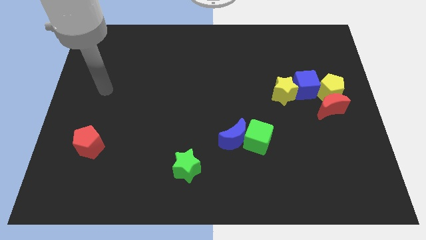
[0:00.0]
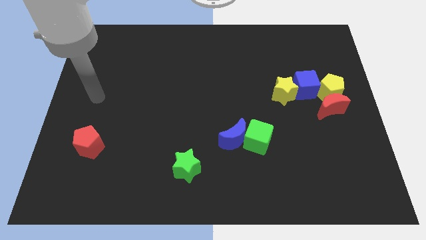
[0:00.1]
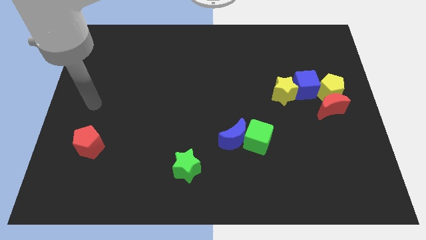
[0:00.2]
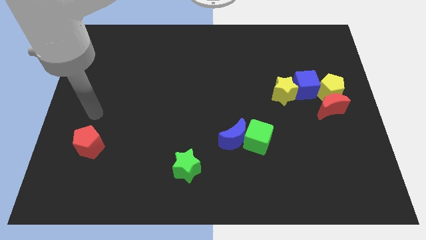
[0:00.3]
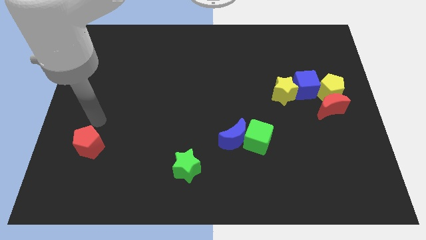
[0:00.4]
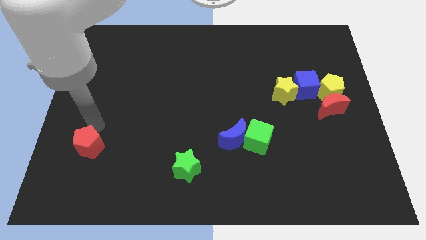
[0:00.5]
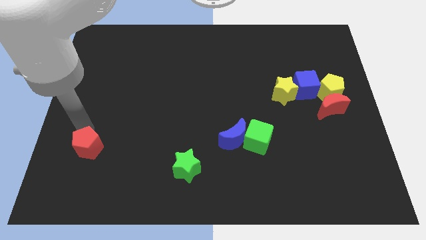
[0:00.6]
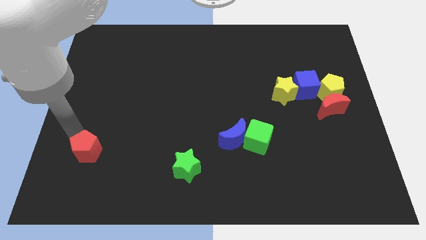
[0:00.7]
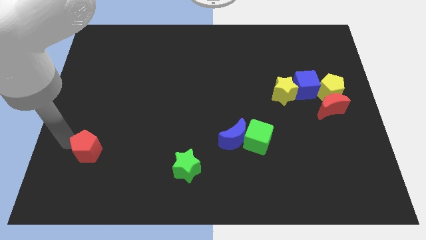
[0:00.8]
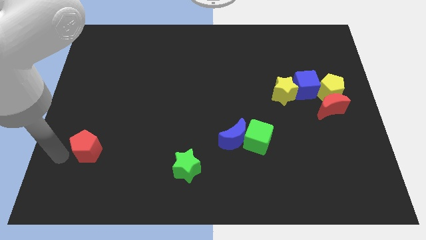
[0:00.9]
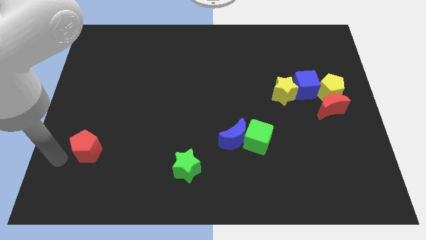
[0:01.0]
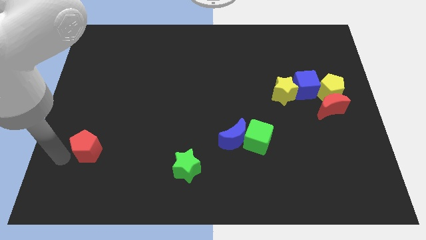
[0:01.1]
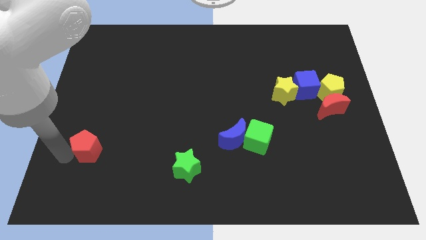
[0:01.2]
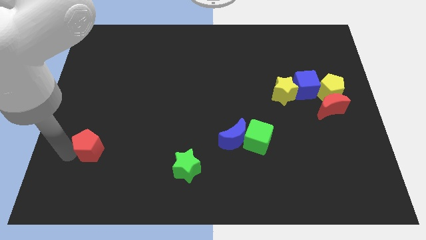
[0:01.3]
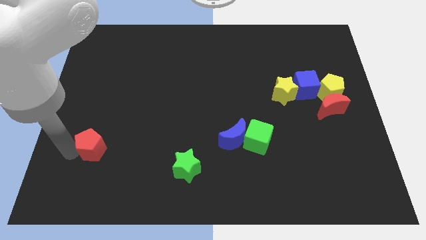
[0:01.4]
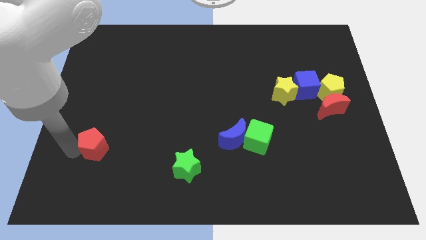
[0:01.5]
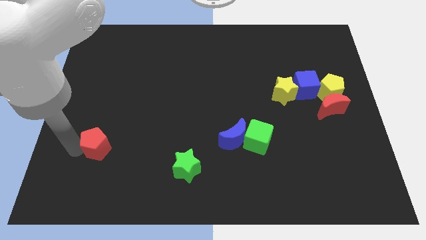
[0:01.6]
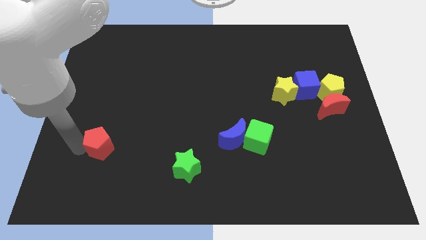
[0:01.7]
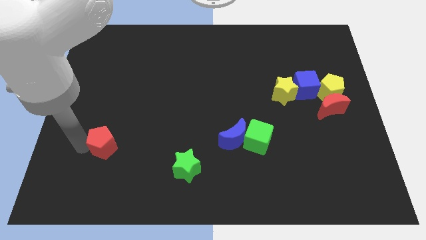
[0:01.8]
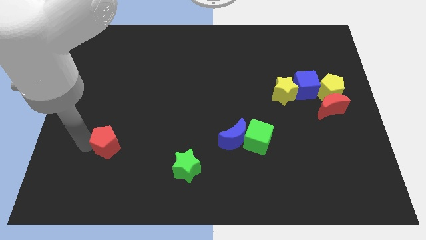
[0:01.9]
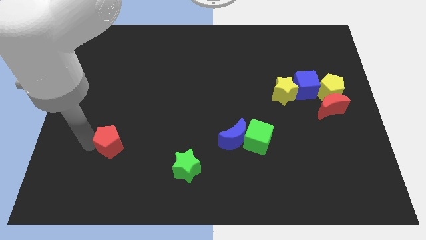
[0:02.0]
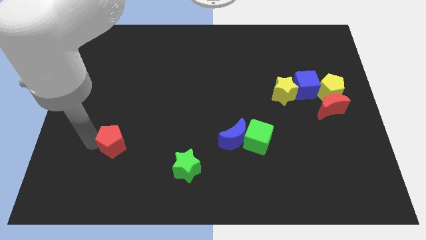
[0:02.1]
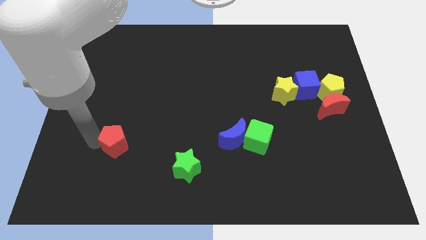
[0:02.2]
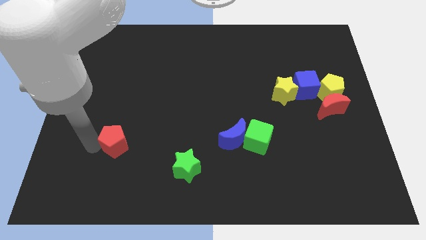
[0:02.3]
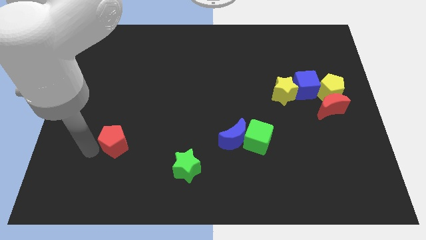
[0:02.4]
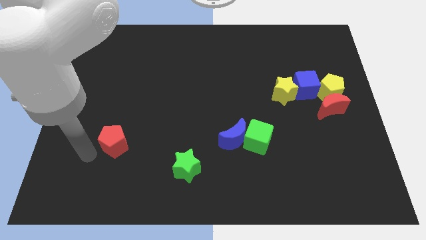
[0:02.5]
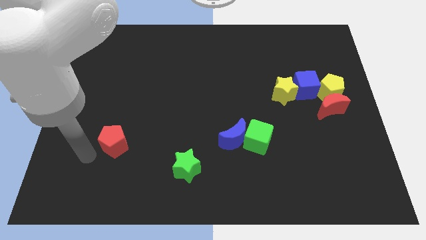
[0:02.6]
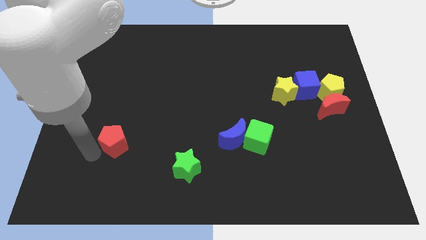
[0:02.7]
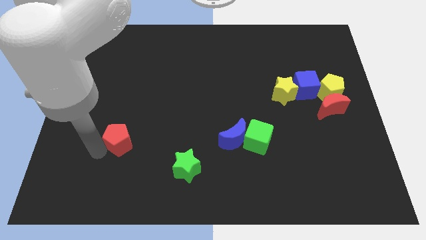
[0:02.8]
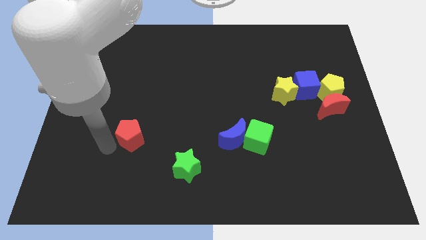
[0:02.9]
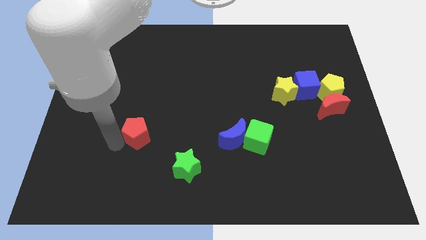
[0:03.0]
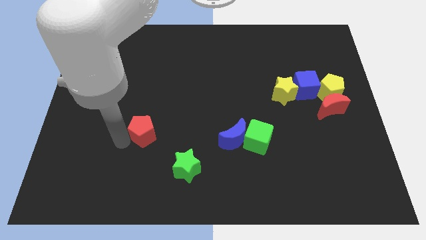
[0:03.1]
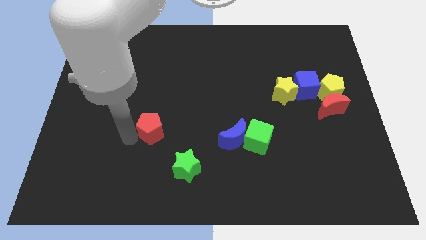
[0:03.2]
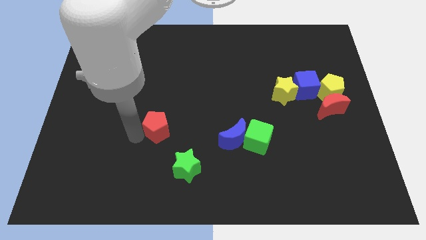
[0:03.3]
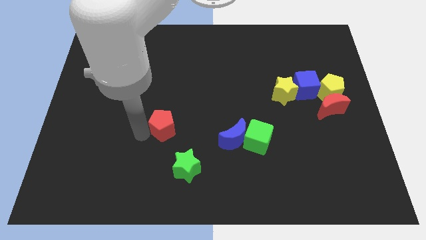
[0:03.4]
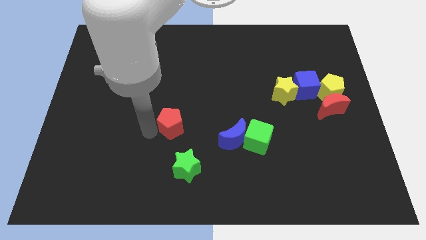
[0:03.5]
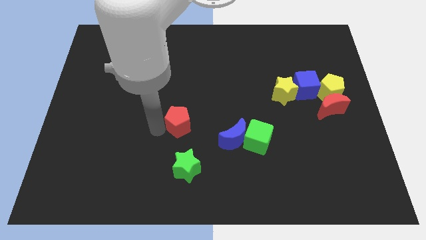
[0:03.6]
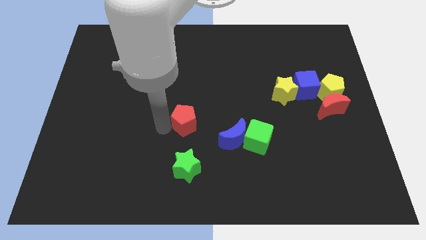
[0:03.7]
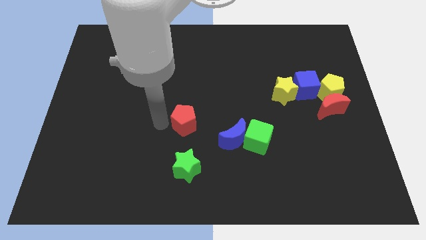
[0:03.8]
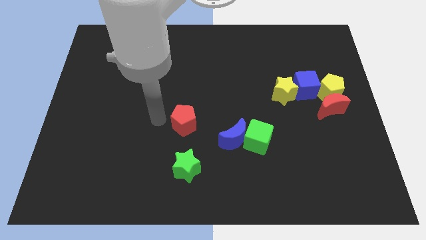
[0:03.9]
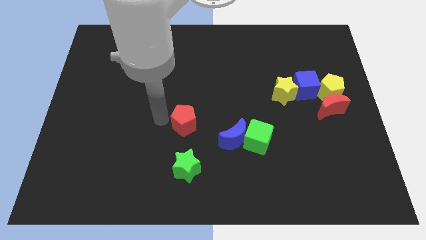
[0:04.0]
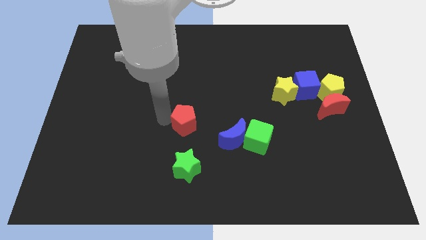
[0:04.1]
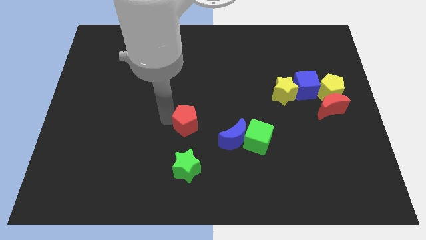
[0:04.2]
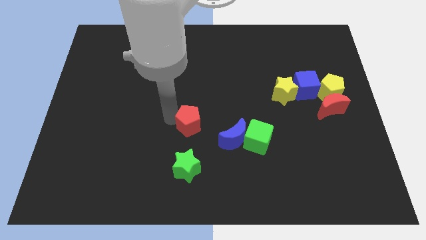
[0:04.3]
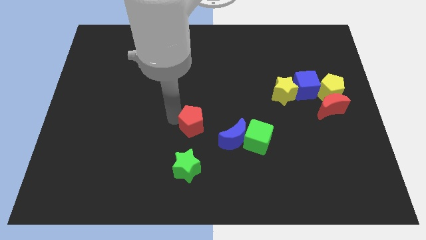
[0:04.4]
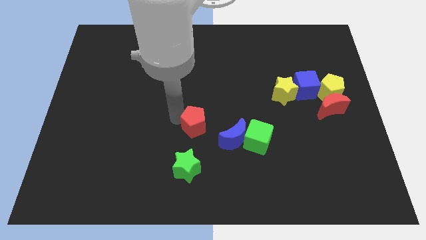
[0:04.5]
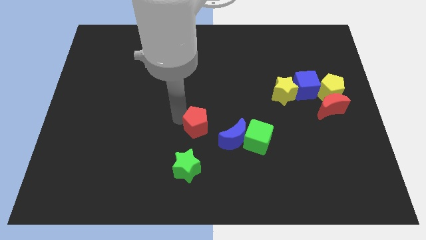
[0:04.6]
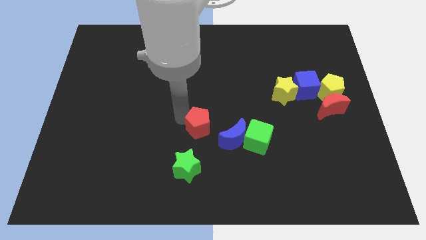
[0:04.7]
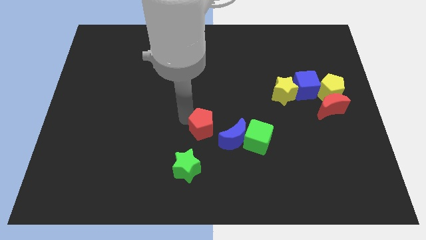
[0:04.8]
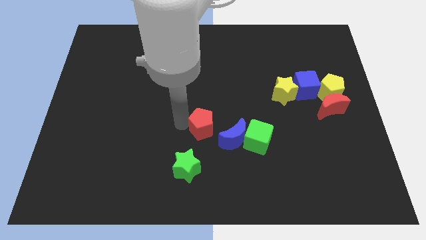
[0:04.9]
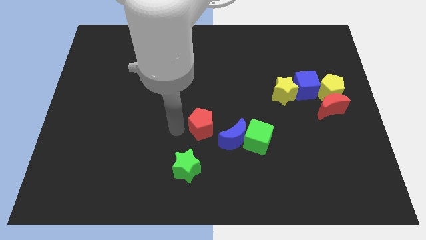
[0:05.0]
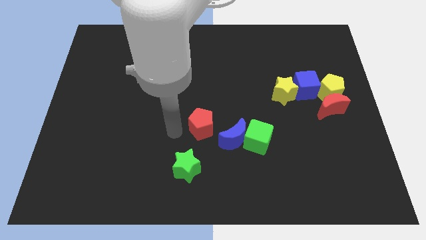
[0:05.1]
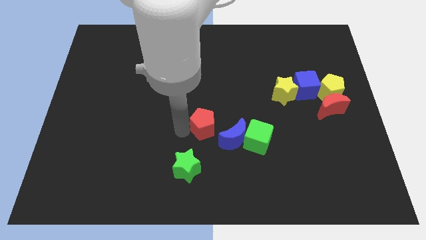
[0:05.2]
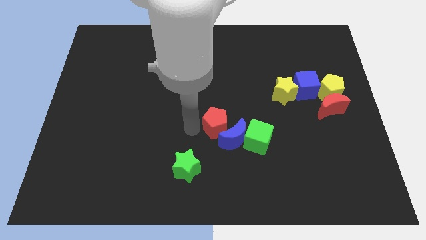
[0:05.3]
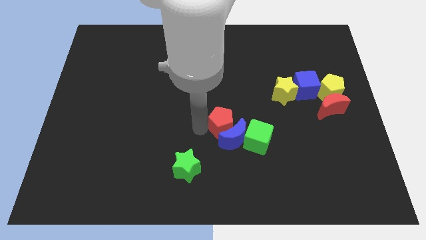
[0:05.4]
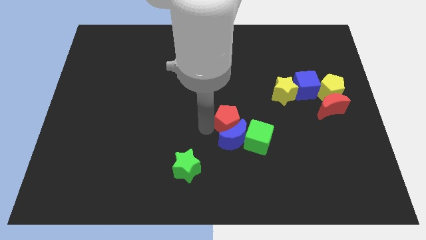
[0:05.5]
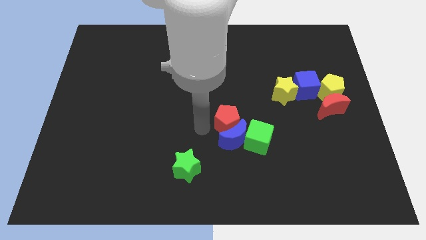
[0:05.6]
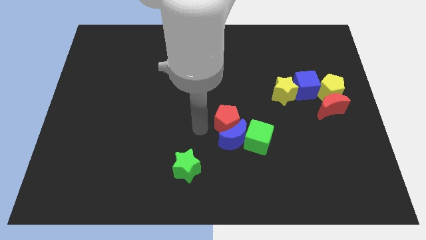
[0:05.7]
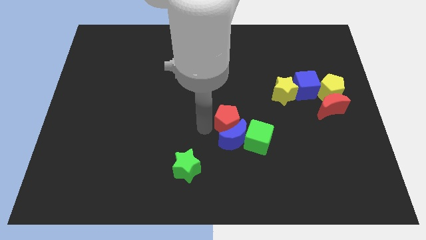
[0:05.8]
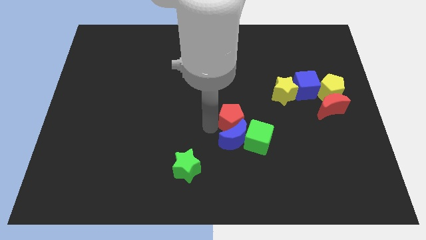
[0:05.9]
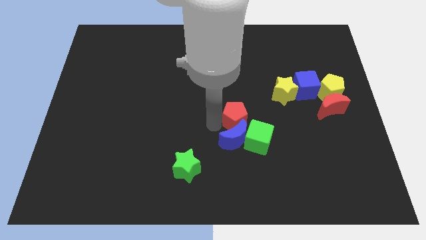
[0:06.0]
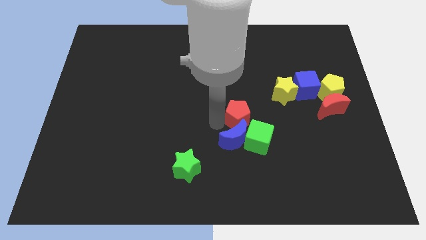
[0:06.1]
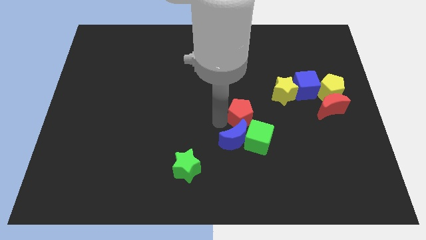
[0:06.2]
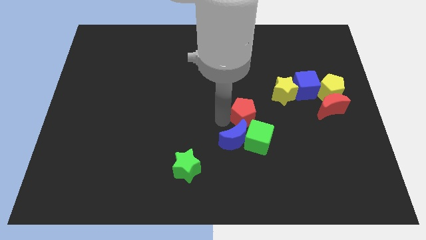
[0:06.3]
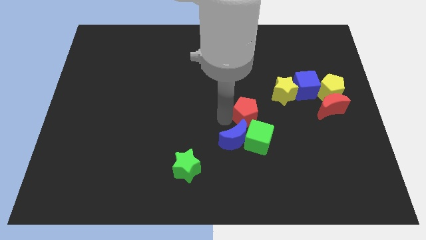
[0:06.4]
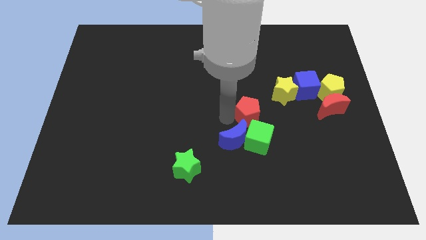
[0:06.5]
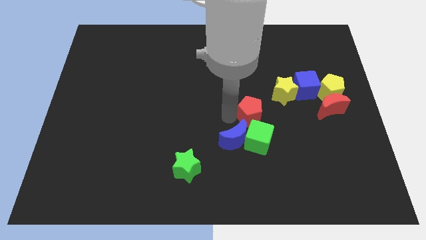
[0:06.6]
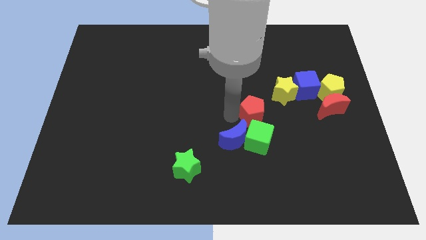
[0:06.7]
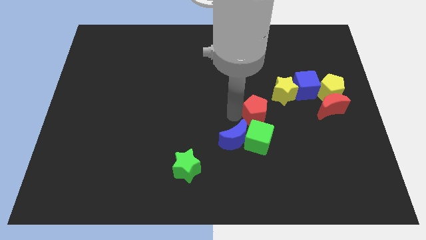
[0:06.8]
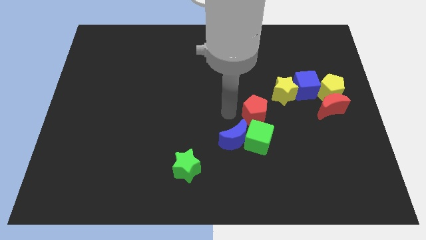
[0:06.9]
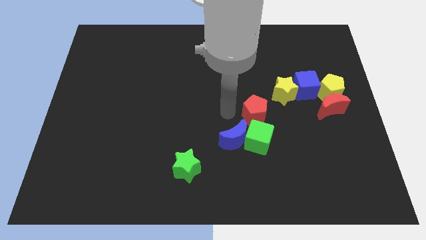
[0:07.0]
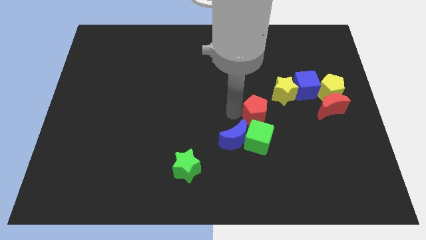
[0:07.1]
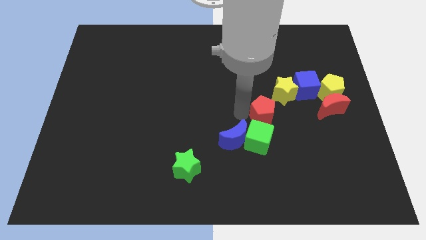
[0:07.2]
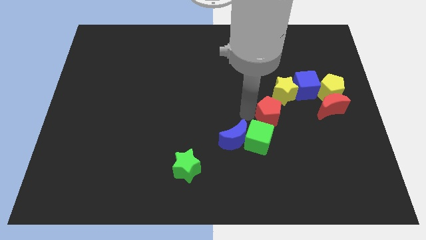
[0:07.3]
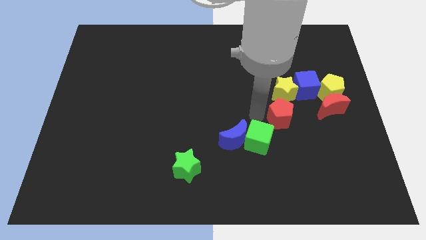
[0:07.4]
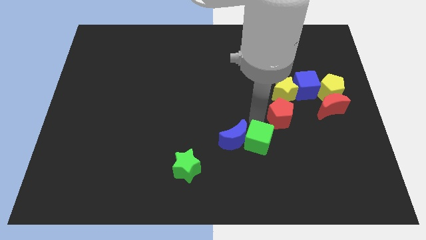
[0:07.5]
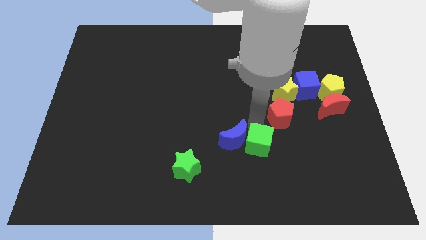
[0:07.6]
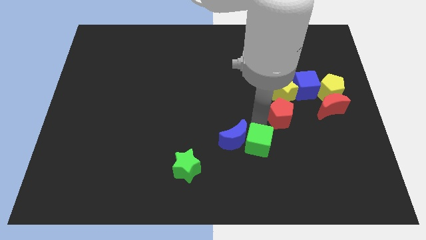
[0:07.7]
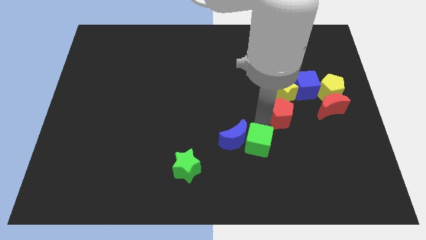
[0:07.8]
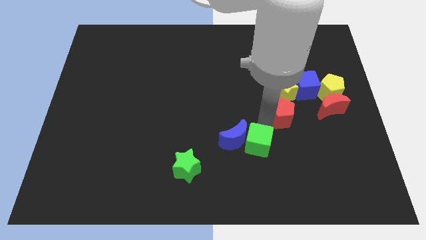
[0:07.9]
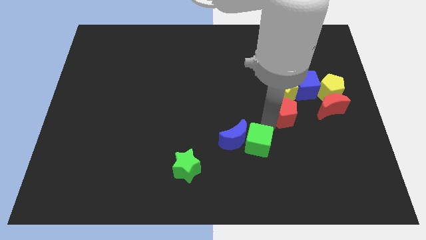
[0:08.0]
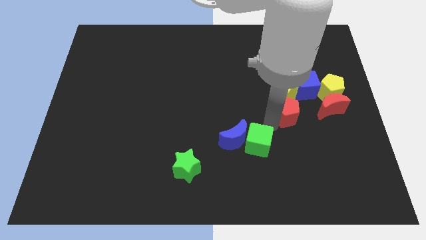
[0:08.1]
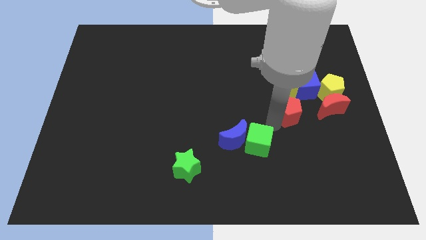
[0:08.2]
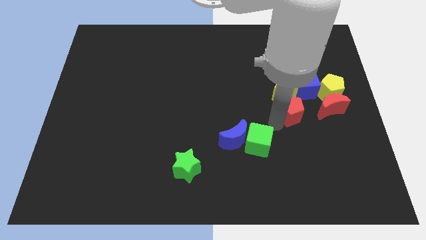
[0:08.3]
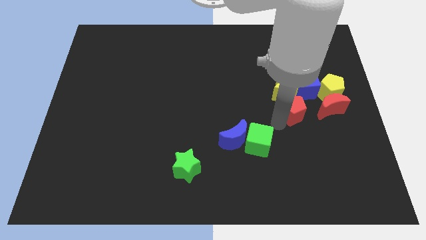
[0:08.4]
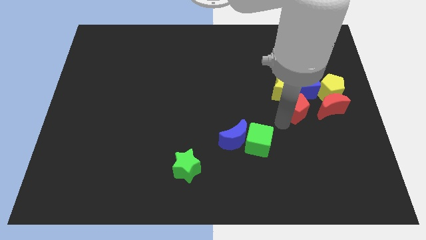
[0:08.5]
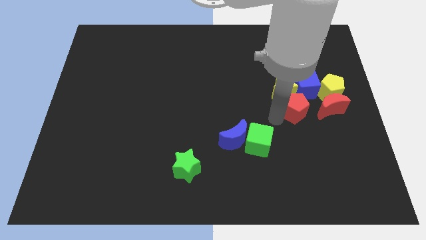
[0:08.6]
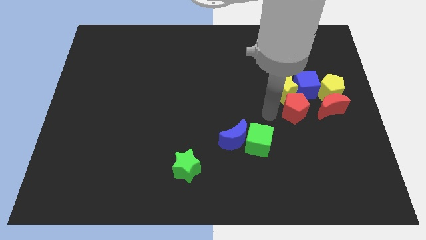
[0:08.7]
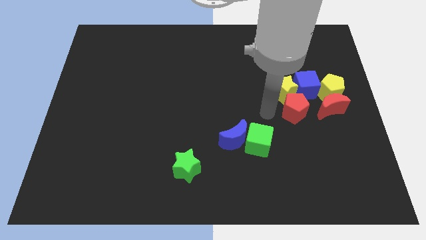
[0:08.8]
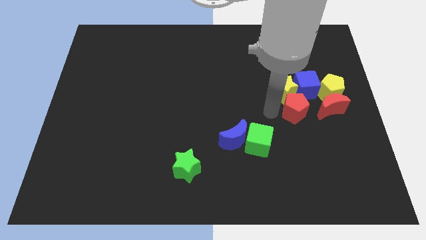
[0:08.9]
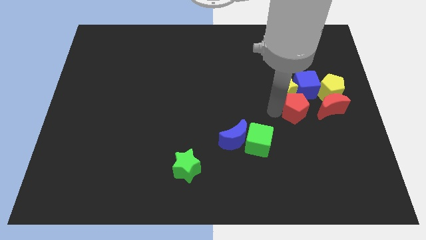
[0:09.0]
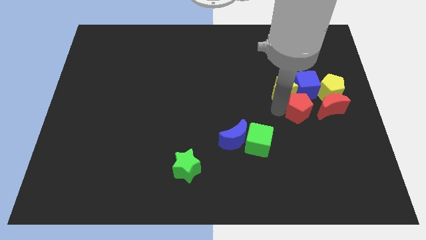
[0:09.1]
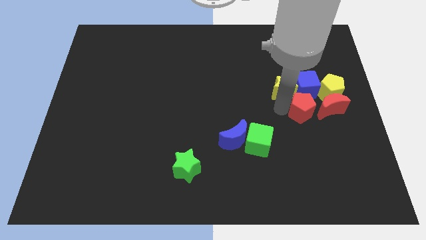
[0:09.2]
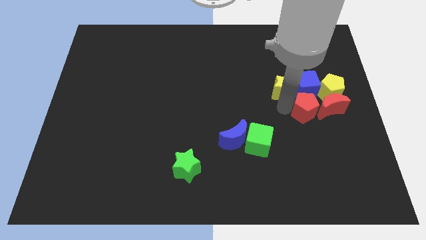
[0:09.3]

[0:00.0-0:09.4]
put the red pentagon close to the red moon
